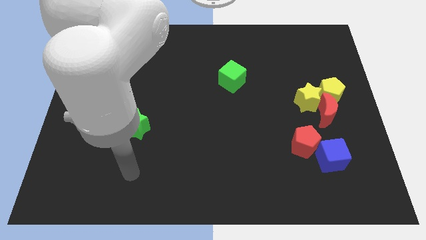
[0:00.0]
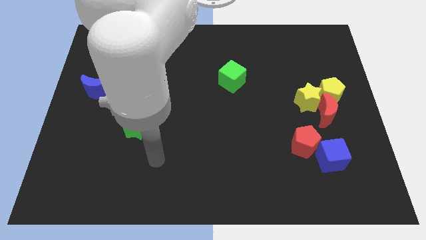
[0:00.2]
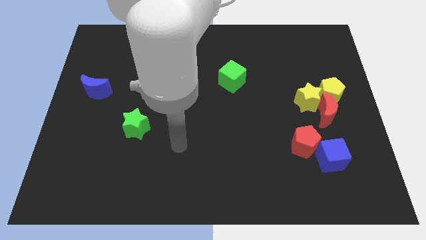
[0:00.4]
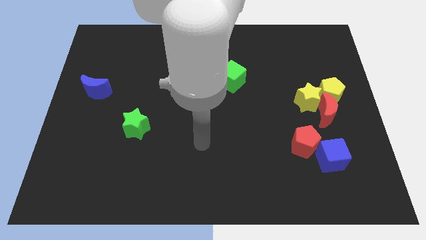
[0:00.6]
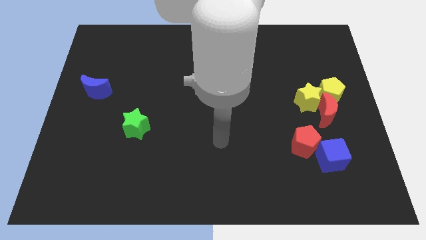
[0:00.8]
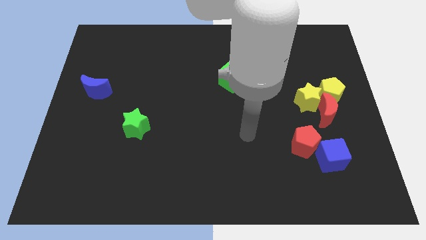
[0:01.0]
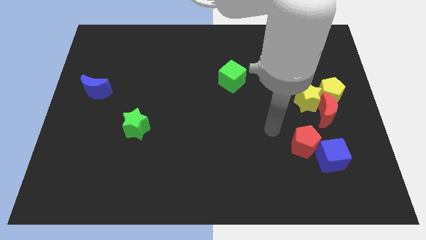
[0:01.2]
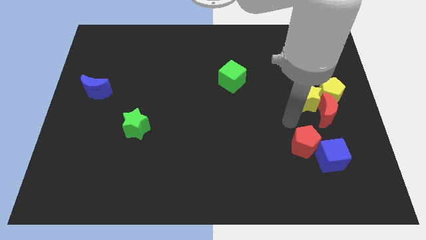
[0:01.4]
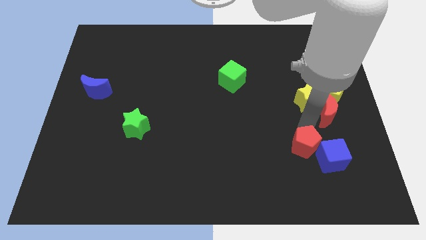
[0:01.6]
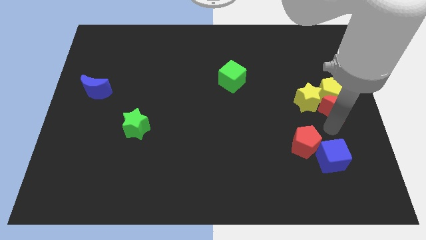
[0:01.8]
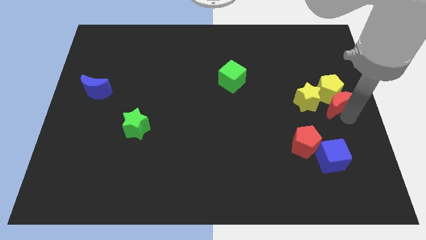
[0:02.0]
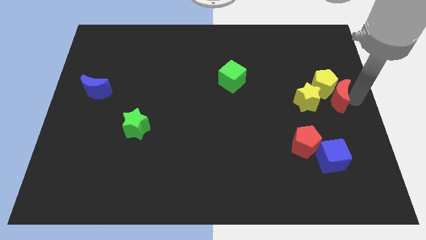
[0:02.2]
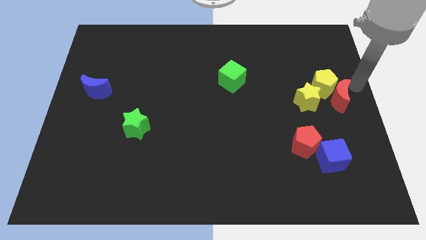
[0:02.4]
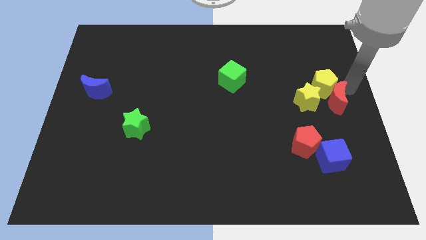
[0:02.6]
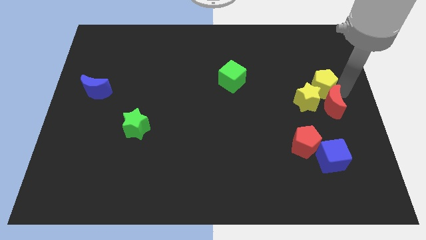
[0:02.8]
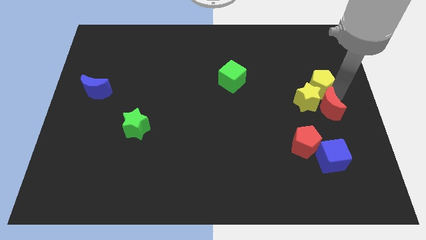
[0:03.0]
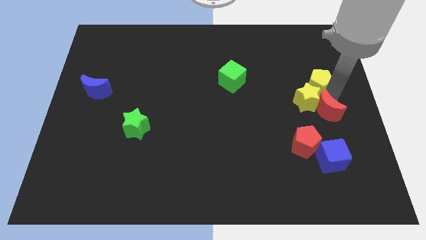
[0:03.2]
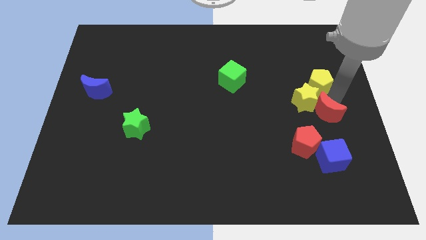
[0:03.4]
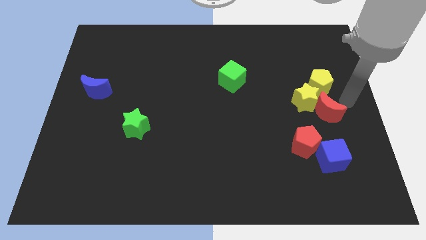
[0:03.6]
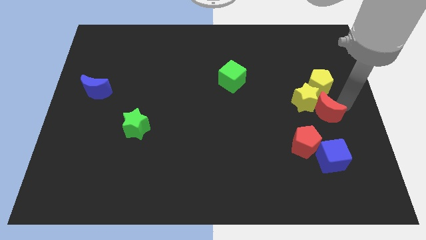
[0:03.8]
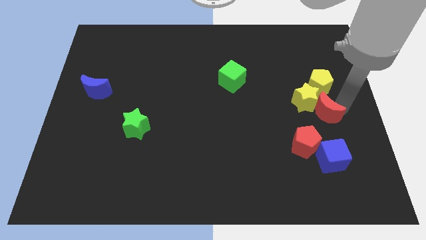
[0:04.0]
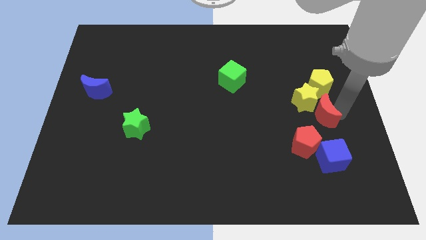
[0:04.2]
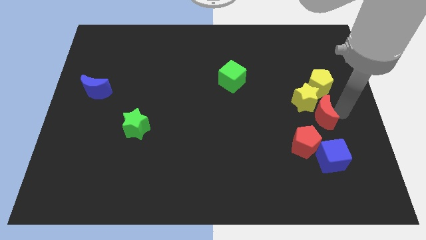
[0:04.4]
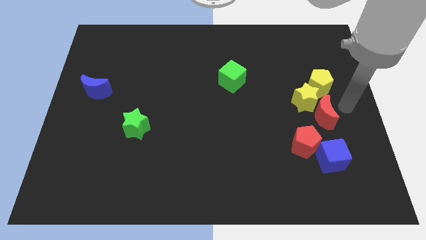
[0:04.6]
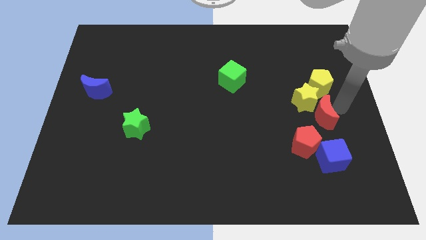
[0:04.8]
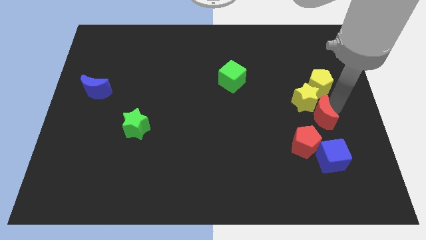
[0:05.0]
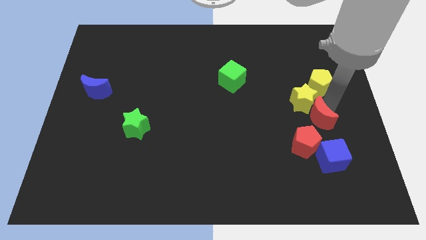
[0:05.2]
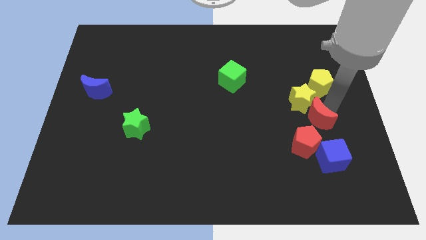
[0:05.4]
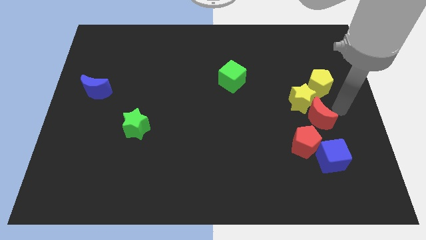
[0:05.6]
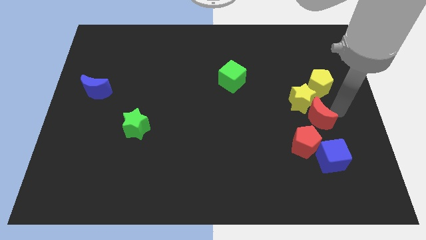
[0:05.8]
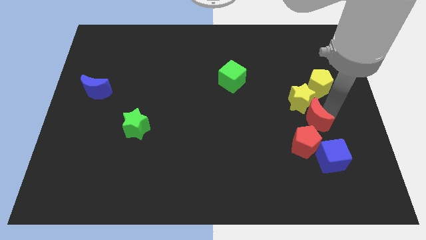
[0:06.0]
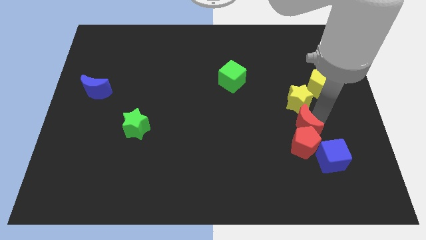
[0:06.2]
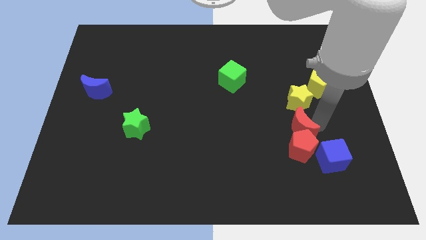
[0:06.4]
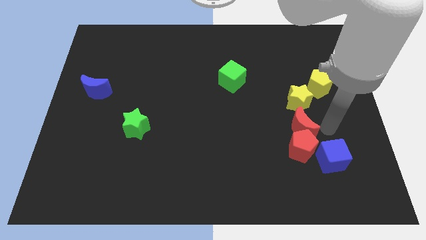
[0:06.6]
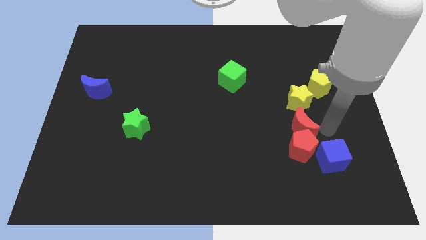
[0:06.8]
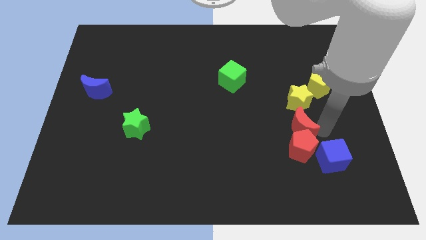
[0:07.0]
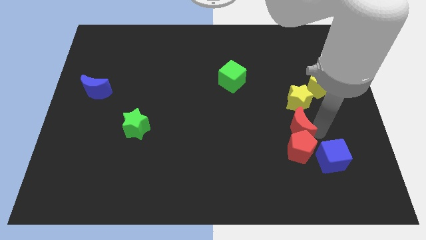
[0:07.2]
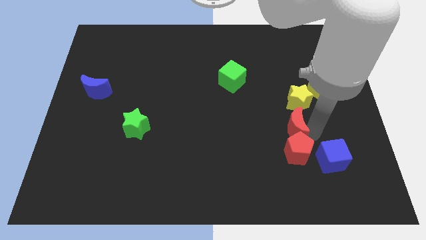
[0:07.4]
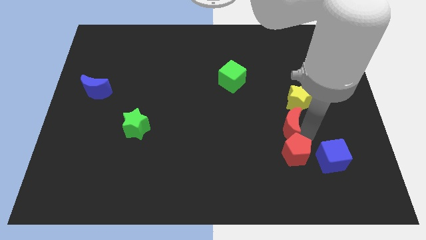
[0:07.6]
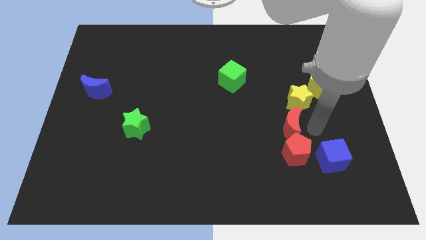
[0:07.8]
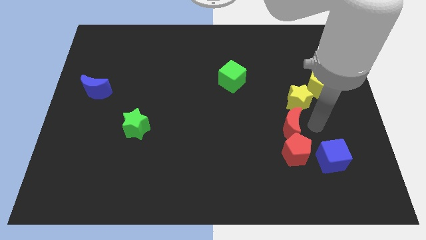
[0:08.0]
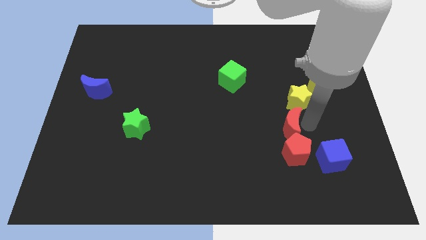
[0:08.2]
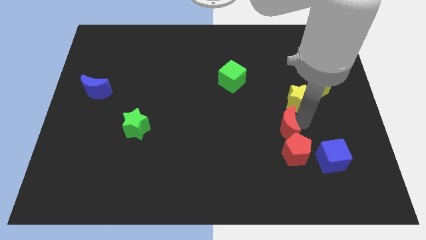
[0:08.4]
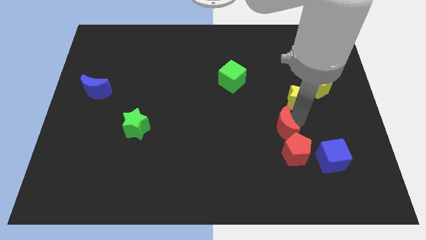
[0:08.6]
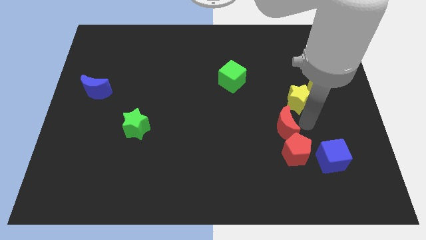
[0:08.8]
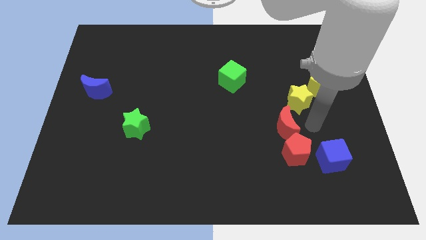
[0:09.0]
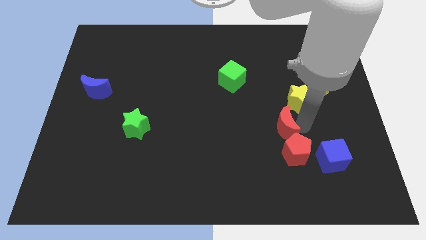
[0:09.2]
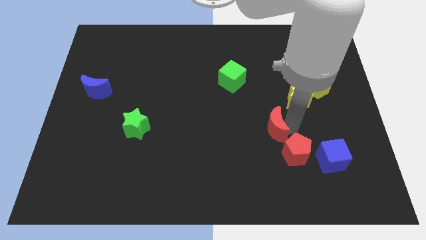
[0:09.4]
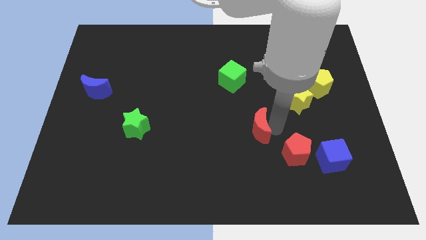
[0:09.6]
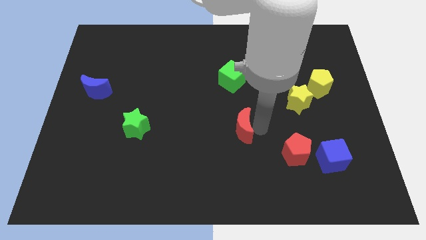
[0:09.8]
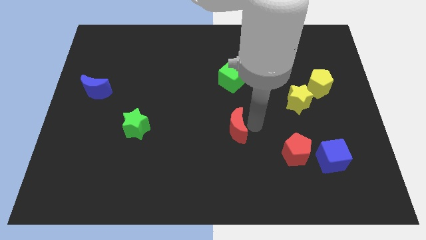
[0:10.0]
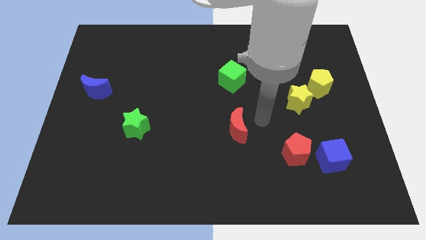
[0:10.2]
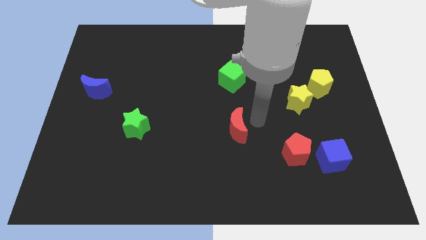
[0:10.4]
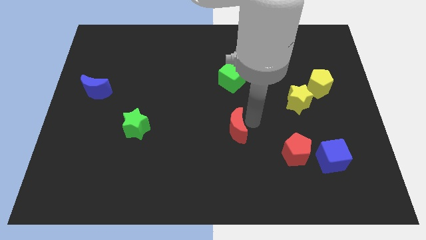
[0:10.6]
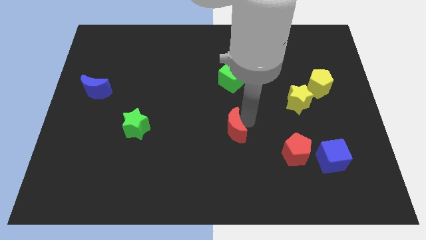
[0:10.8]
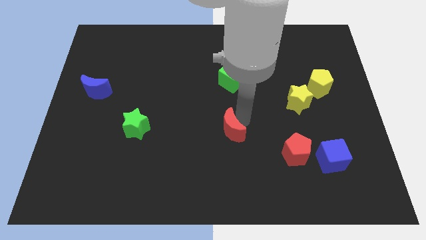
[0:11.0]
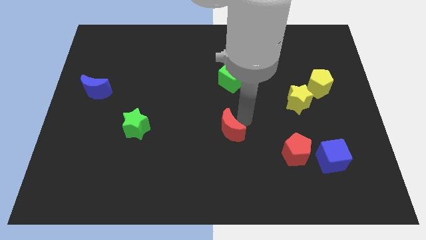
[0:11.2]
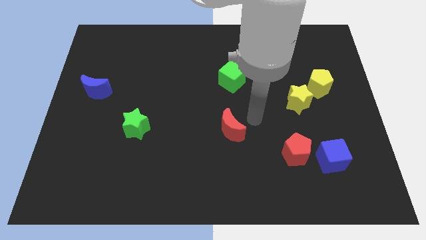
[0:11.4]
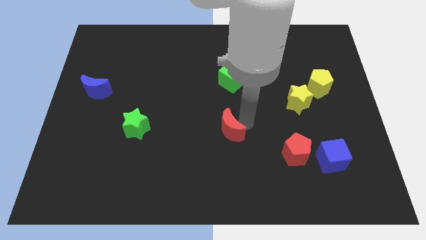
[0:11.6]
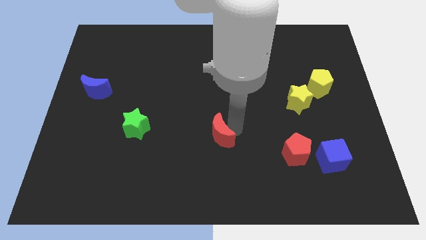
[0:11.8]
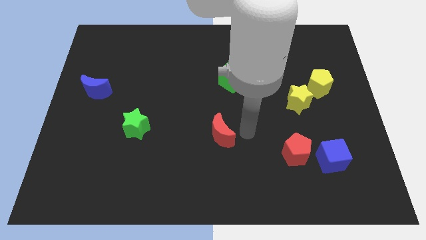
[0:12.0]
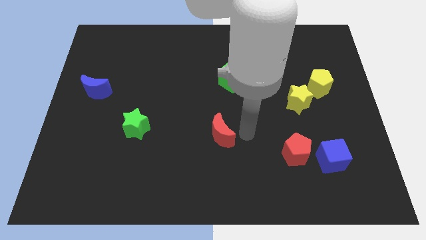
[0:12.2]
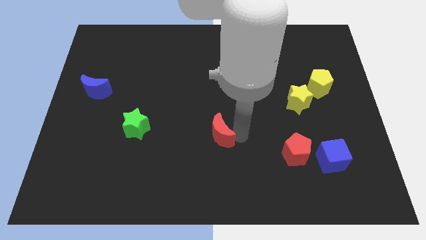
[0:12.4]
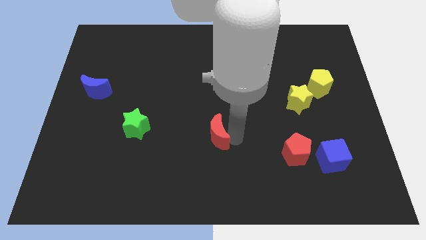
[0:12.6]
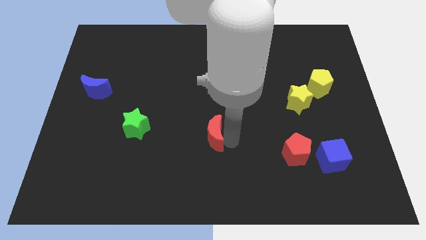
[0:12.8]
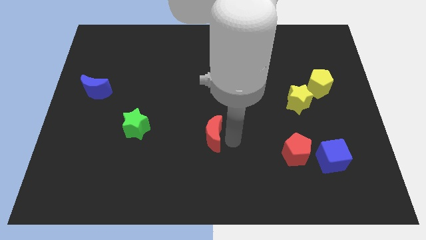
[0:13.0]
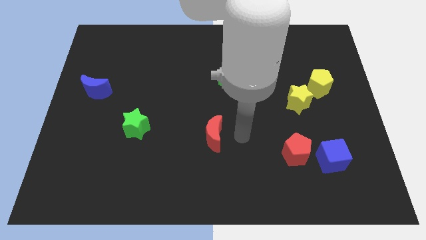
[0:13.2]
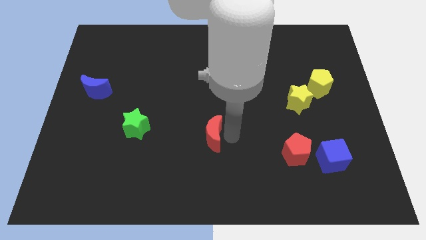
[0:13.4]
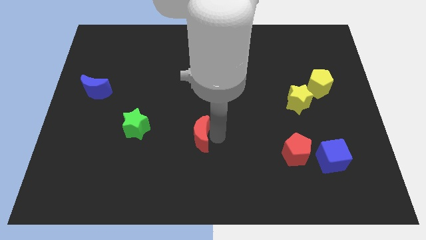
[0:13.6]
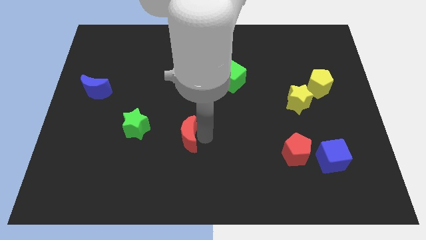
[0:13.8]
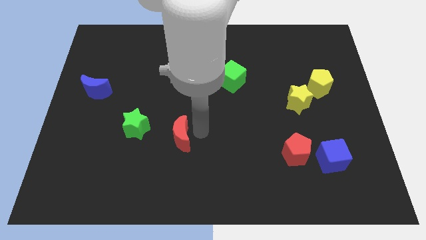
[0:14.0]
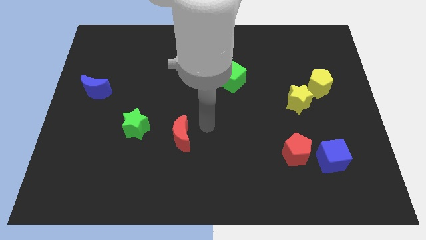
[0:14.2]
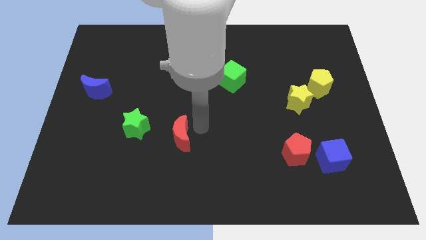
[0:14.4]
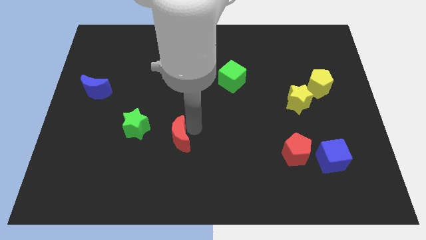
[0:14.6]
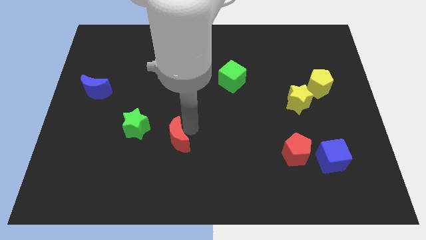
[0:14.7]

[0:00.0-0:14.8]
put the red moon to the bottom right side of the green star

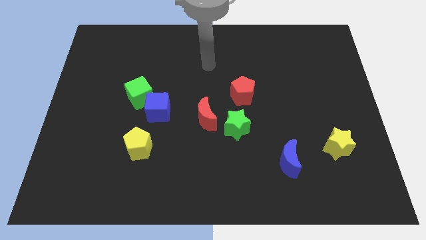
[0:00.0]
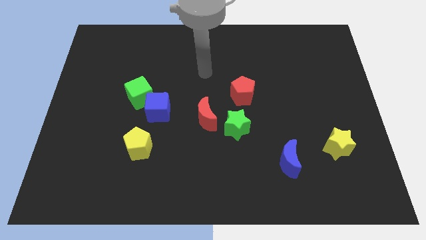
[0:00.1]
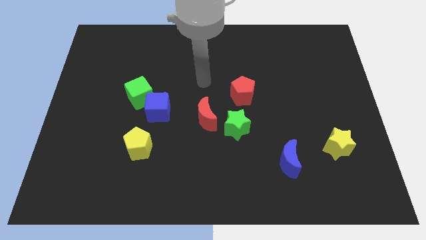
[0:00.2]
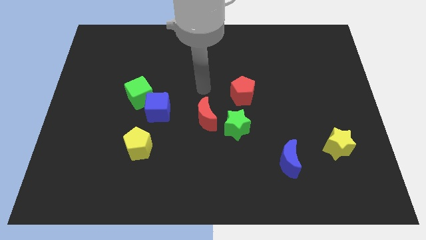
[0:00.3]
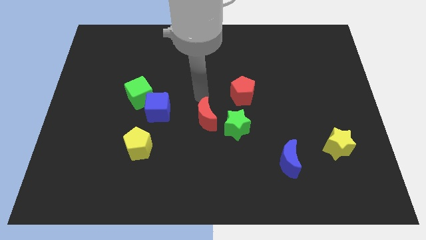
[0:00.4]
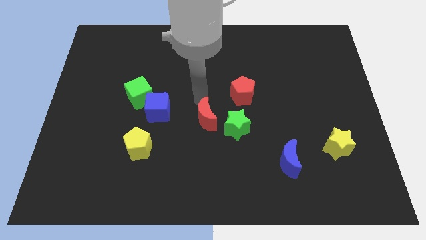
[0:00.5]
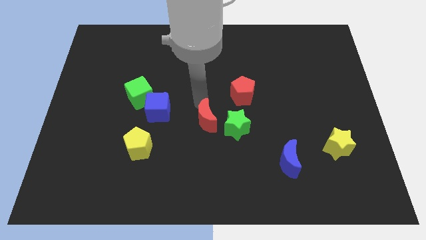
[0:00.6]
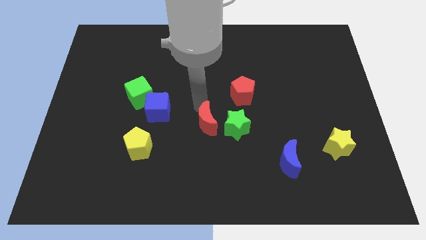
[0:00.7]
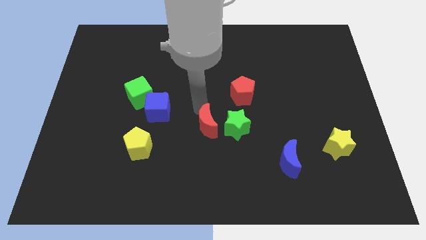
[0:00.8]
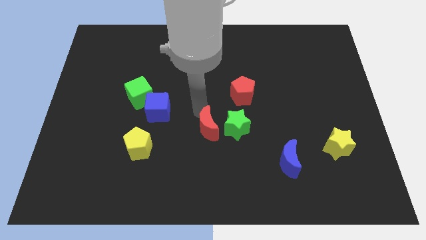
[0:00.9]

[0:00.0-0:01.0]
push the red moon to the bottom left side of the green star
